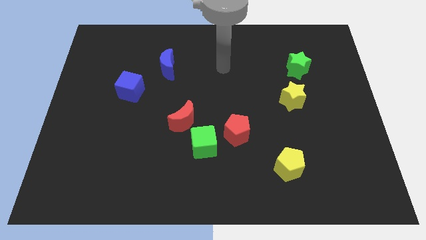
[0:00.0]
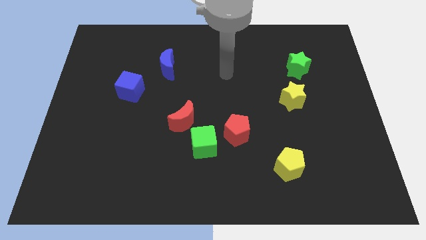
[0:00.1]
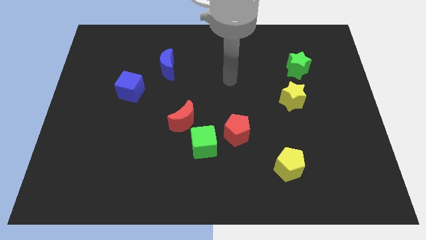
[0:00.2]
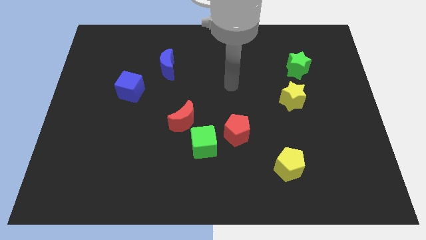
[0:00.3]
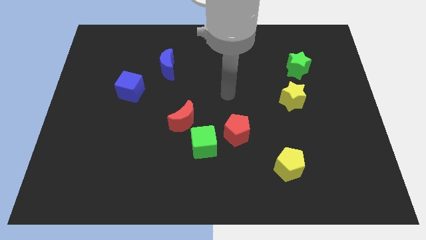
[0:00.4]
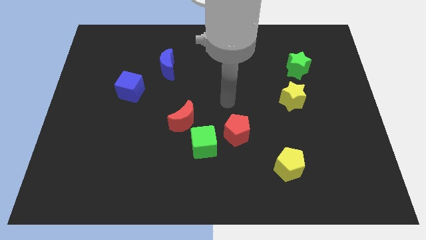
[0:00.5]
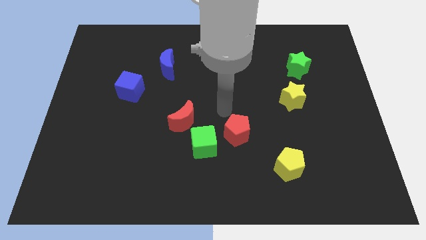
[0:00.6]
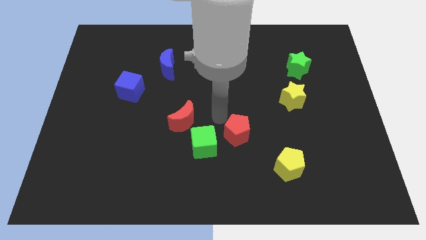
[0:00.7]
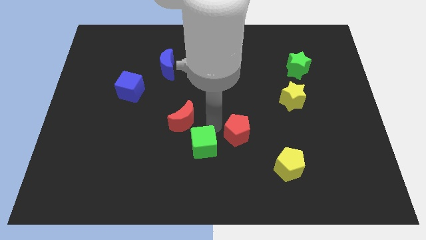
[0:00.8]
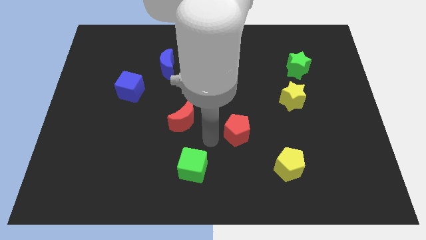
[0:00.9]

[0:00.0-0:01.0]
pull the red pentagon apart from the green cube

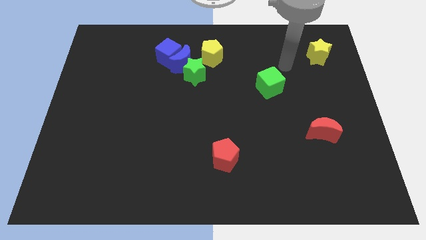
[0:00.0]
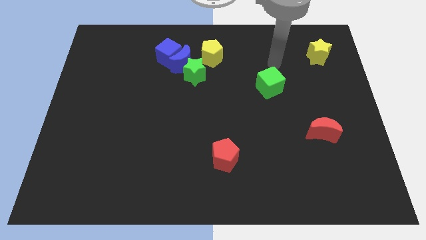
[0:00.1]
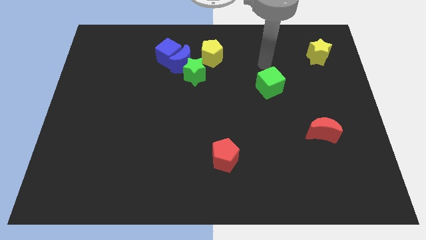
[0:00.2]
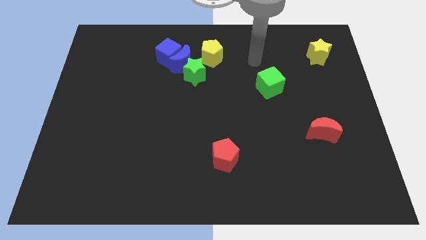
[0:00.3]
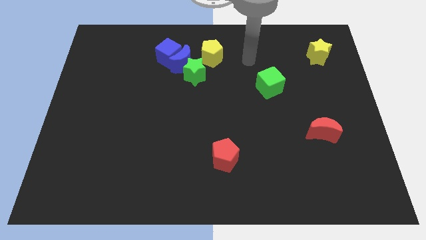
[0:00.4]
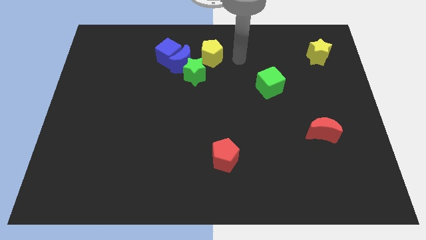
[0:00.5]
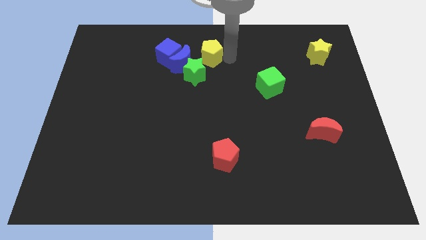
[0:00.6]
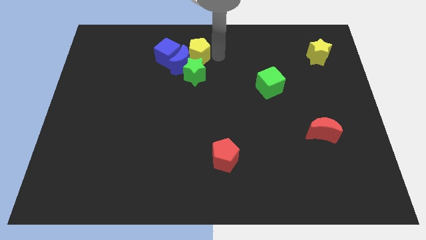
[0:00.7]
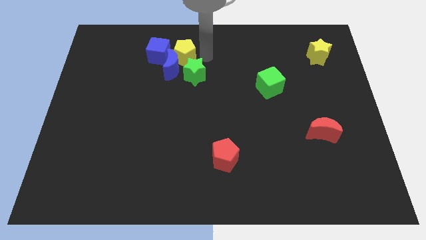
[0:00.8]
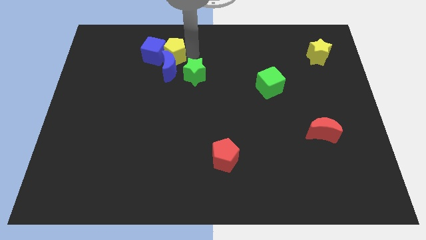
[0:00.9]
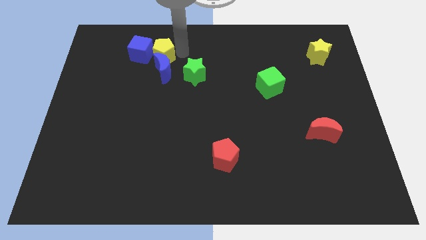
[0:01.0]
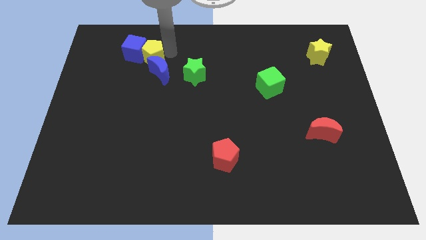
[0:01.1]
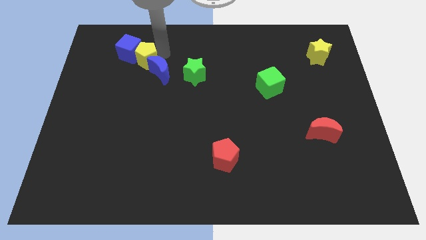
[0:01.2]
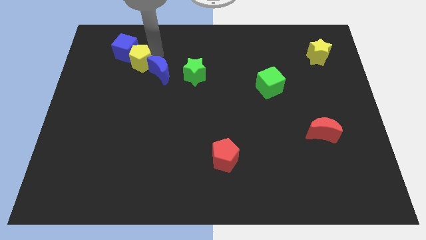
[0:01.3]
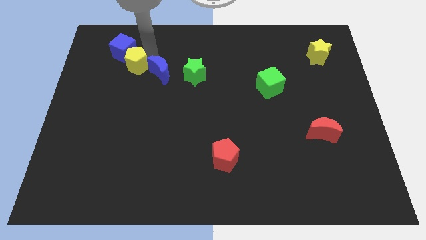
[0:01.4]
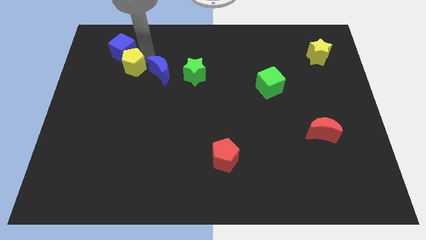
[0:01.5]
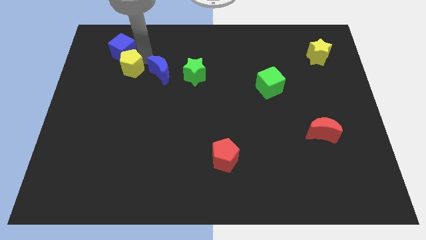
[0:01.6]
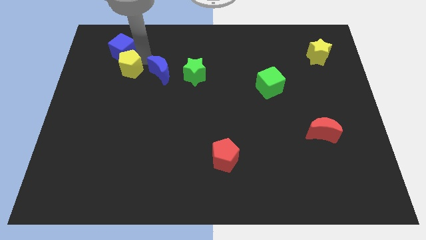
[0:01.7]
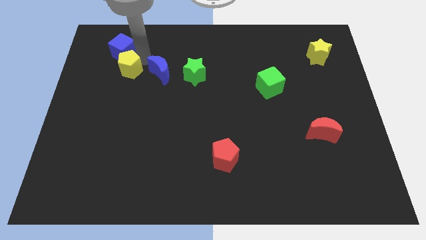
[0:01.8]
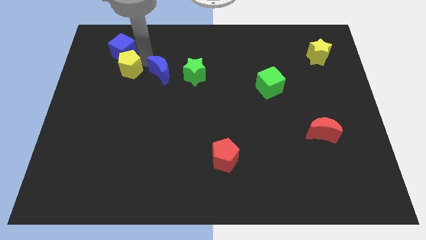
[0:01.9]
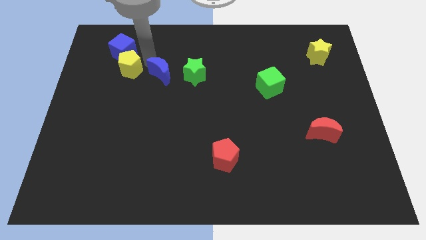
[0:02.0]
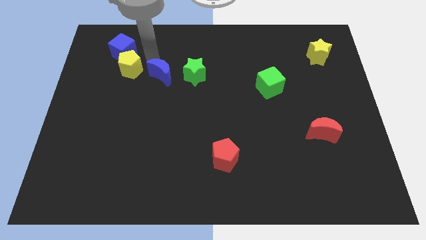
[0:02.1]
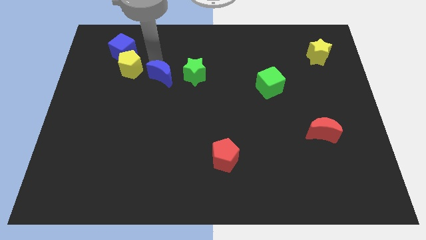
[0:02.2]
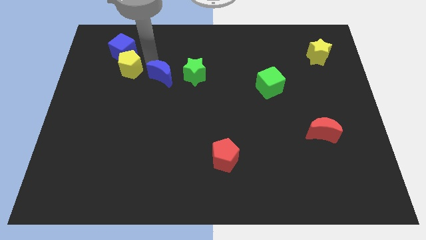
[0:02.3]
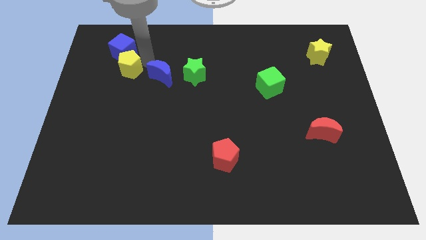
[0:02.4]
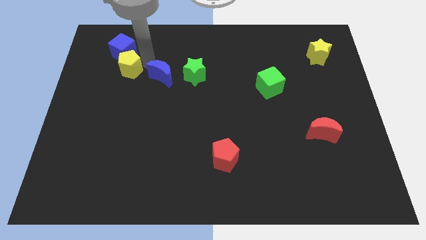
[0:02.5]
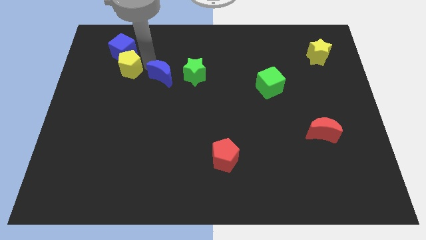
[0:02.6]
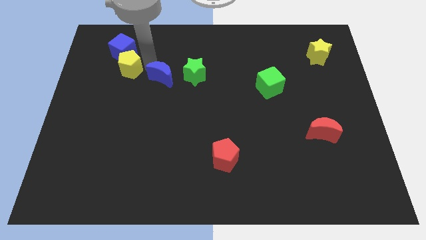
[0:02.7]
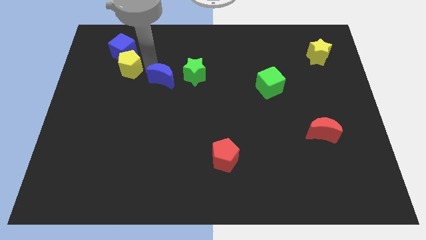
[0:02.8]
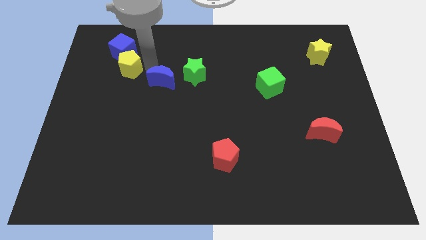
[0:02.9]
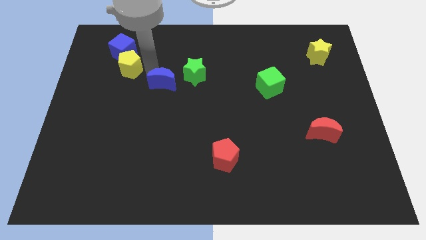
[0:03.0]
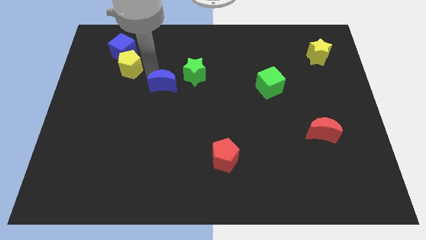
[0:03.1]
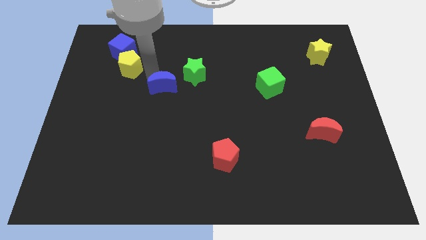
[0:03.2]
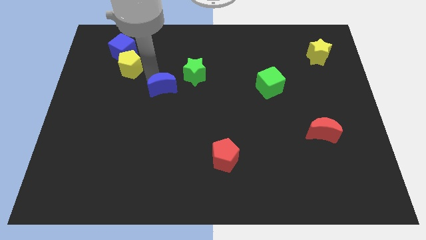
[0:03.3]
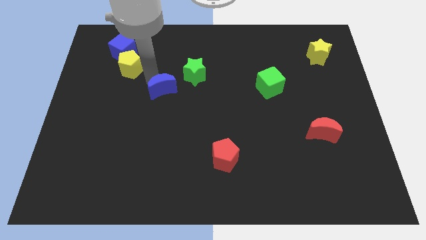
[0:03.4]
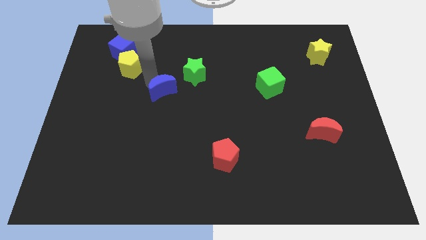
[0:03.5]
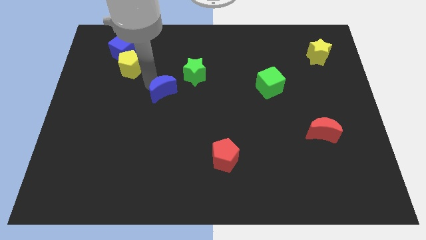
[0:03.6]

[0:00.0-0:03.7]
pull the blue moon apart from the blue cube, green star, and yellow pentagon

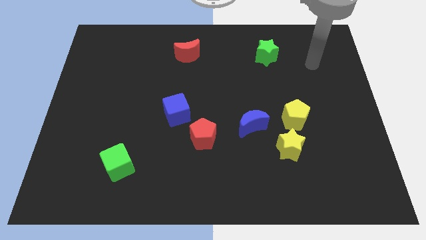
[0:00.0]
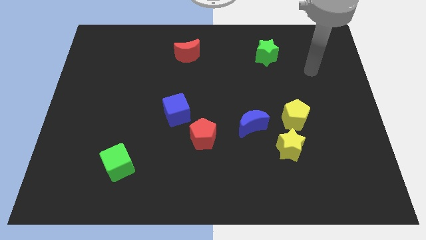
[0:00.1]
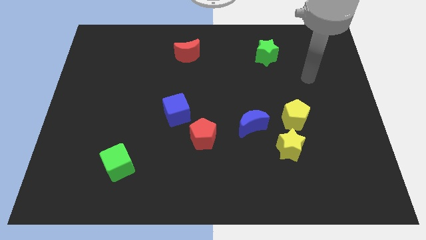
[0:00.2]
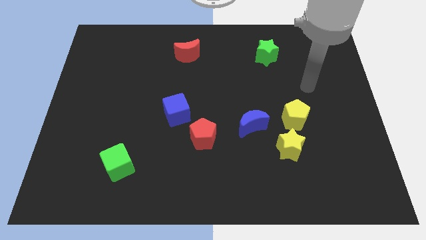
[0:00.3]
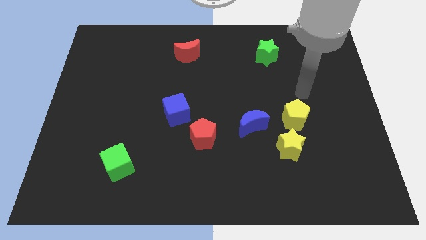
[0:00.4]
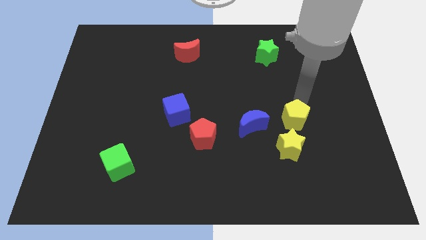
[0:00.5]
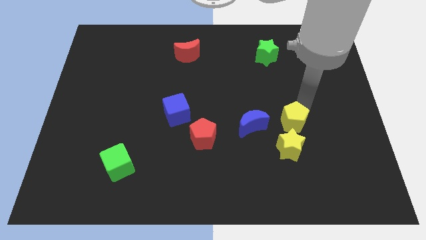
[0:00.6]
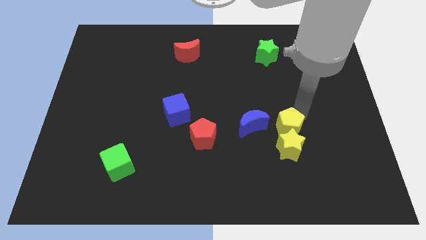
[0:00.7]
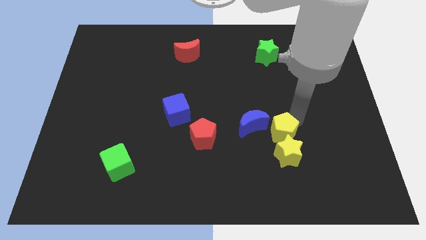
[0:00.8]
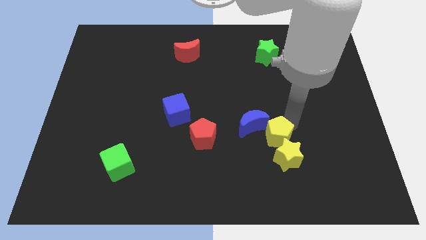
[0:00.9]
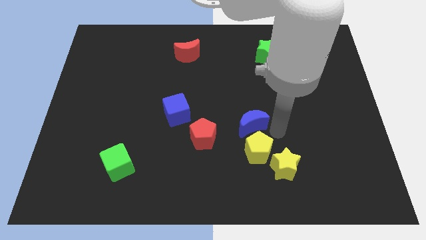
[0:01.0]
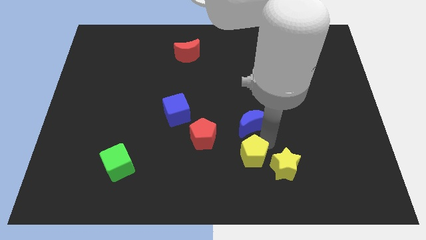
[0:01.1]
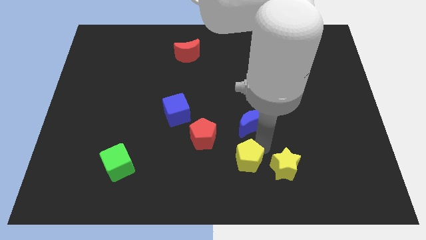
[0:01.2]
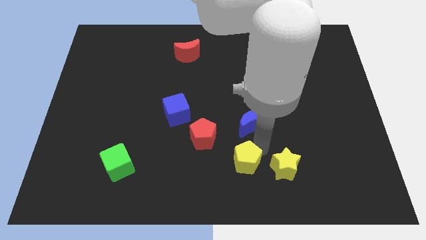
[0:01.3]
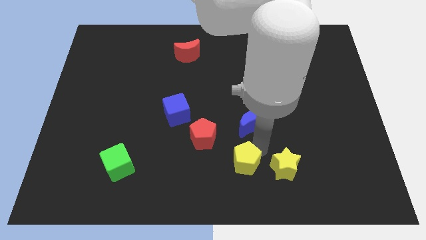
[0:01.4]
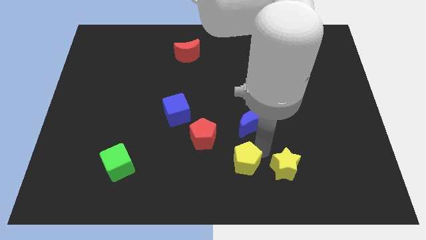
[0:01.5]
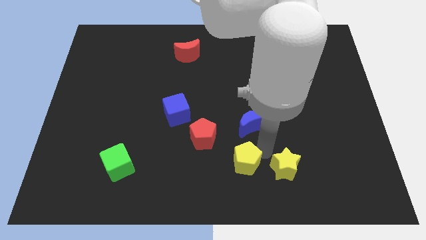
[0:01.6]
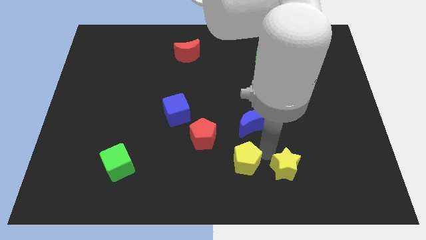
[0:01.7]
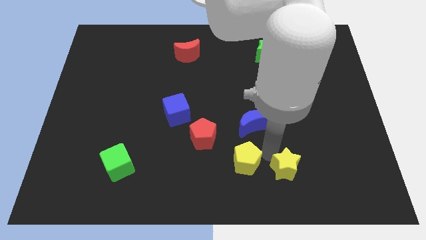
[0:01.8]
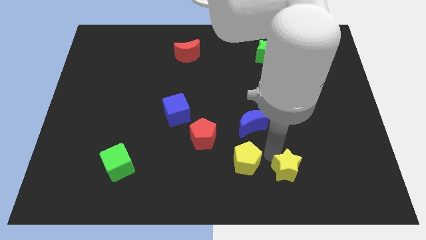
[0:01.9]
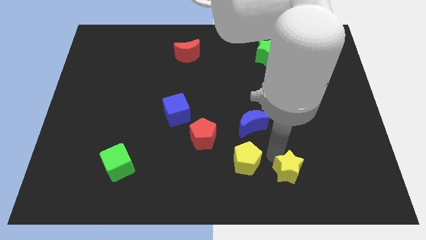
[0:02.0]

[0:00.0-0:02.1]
move the yellow star away from the yellow pentagon and blue moon

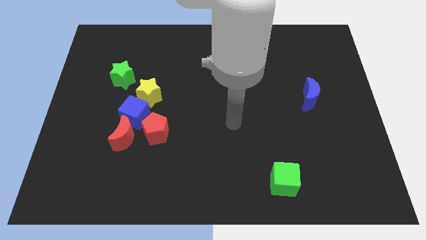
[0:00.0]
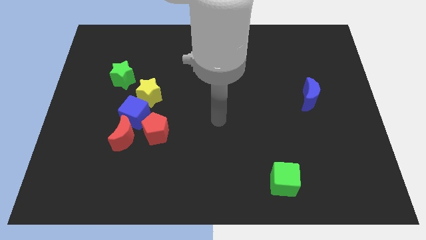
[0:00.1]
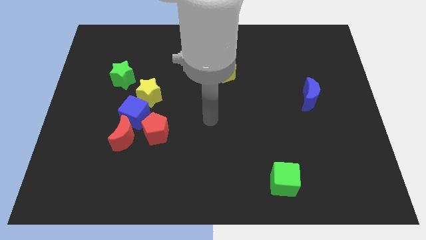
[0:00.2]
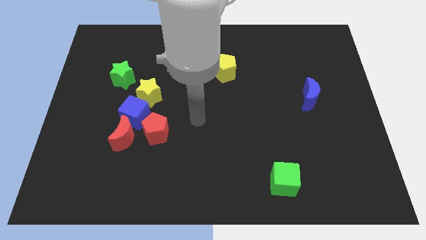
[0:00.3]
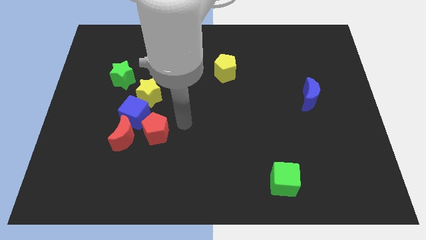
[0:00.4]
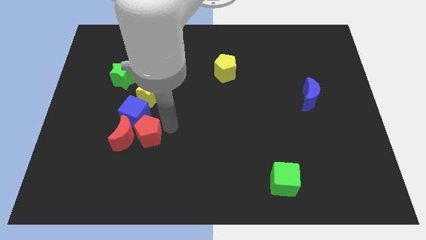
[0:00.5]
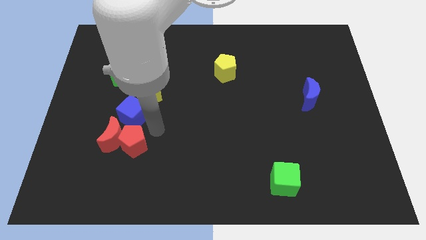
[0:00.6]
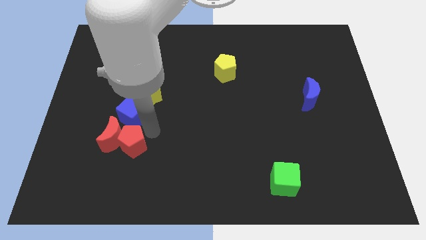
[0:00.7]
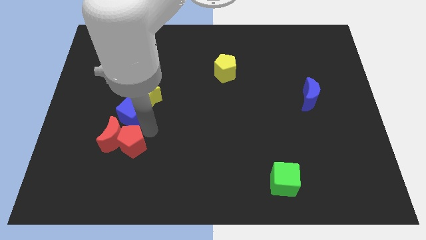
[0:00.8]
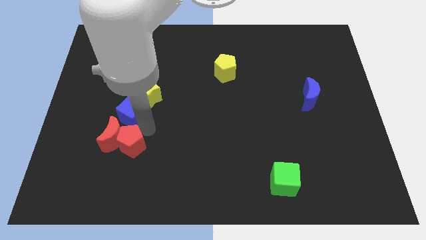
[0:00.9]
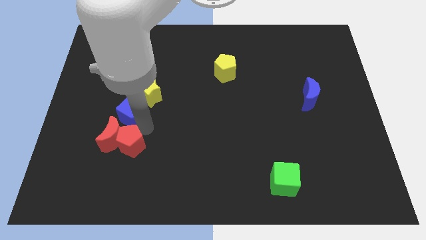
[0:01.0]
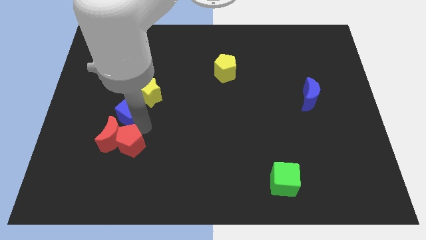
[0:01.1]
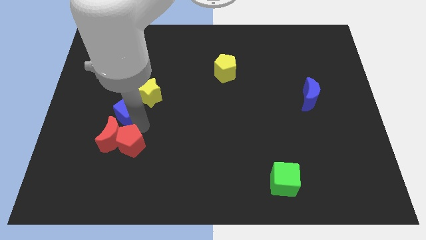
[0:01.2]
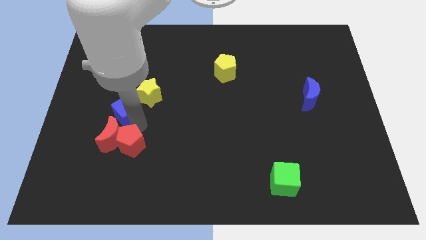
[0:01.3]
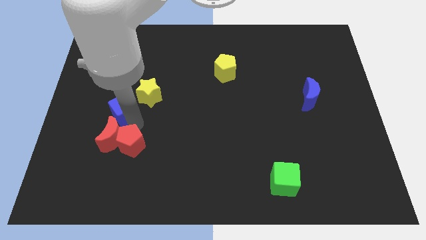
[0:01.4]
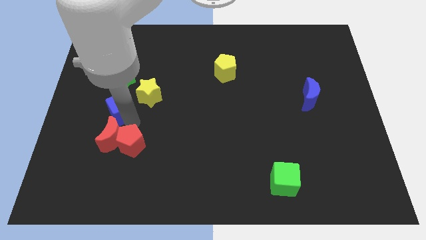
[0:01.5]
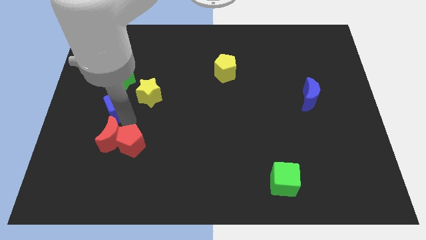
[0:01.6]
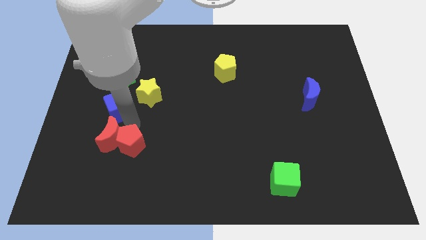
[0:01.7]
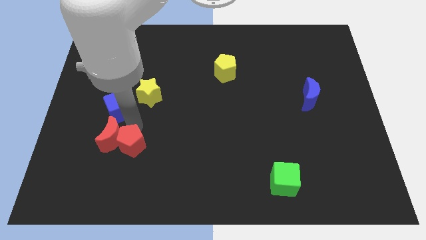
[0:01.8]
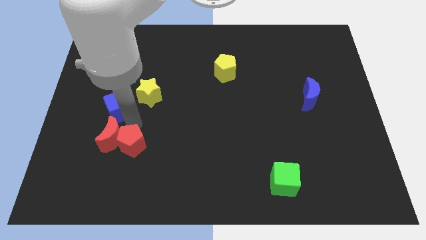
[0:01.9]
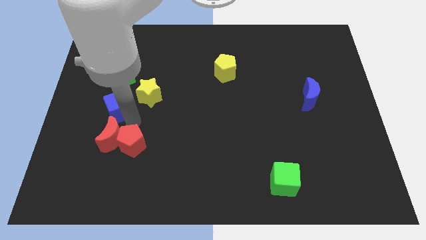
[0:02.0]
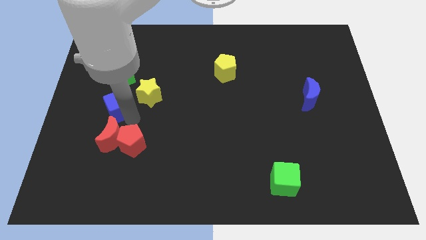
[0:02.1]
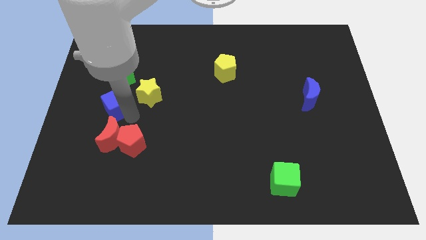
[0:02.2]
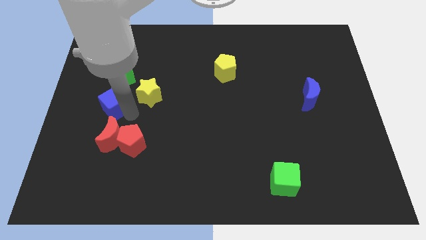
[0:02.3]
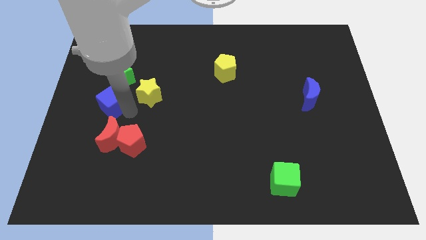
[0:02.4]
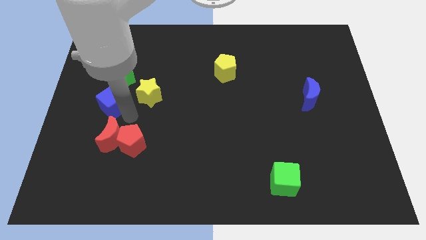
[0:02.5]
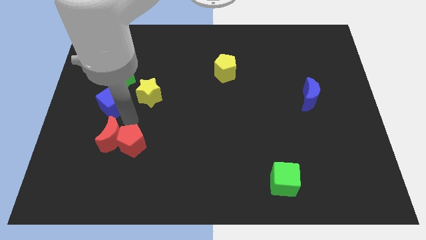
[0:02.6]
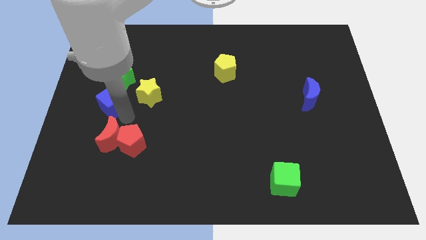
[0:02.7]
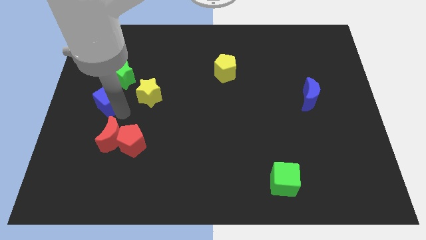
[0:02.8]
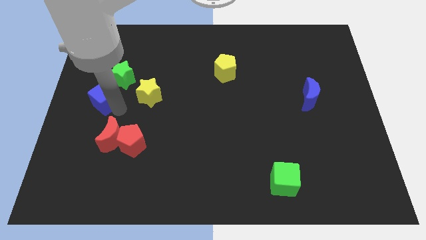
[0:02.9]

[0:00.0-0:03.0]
move the blue cube away from the group
